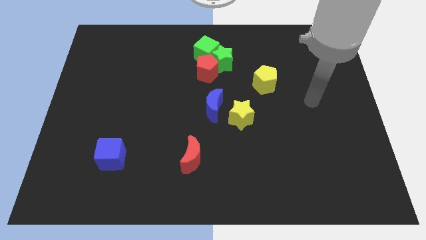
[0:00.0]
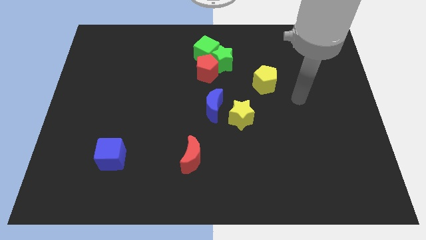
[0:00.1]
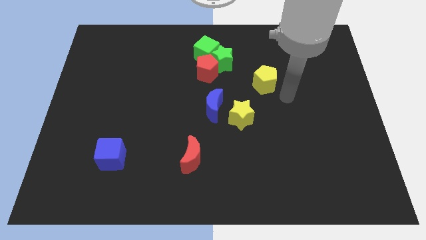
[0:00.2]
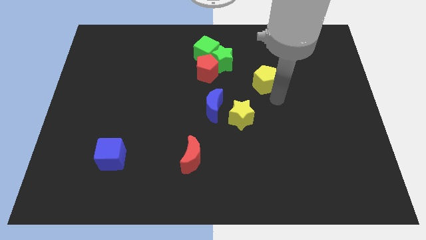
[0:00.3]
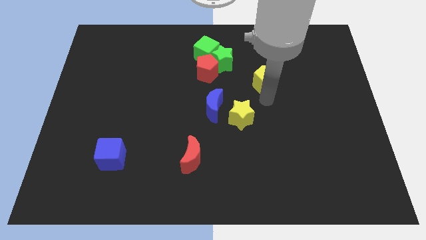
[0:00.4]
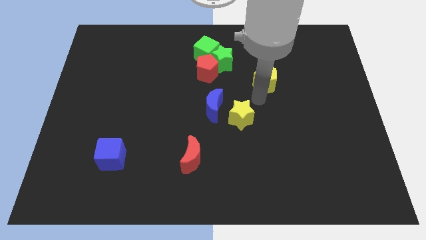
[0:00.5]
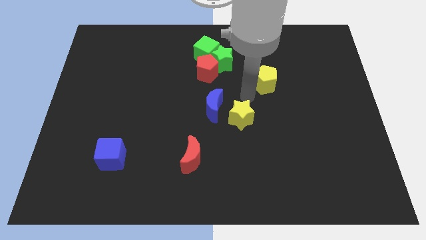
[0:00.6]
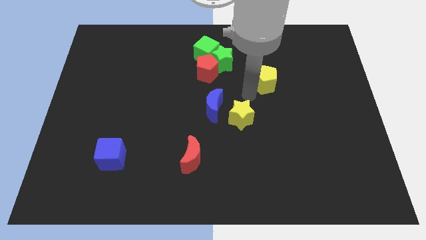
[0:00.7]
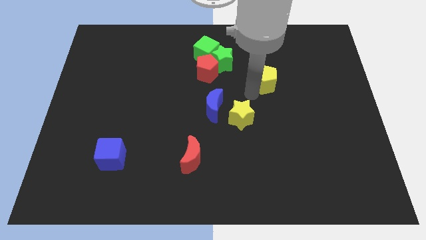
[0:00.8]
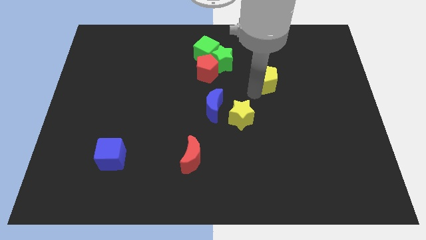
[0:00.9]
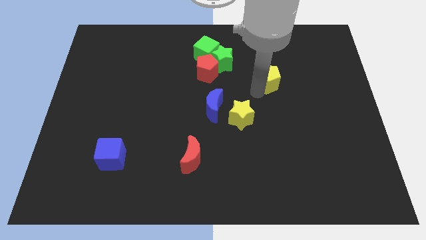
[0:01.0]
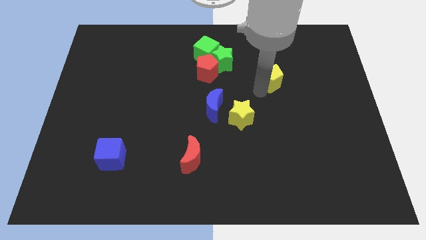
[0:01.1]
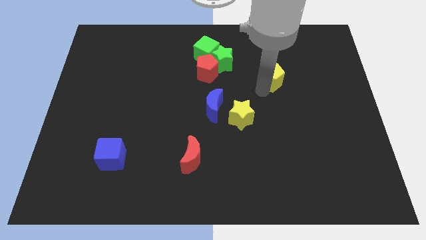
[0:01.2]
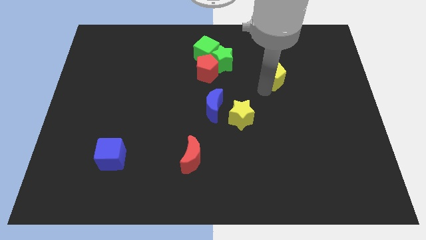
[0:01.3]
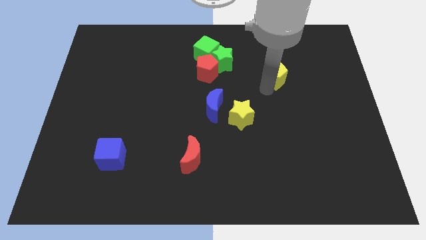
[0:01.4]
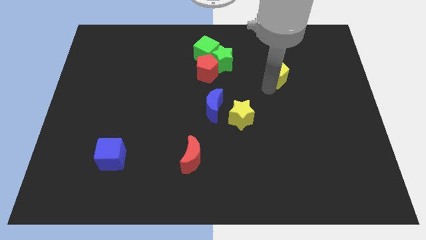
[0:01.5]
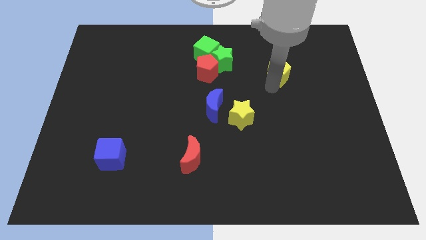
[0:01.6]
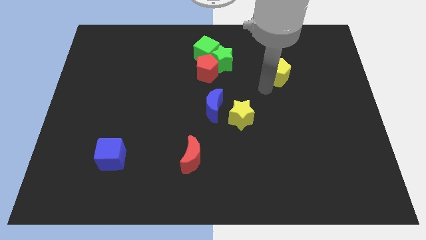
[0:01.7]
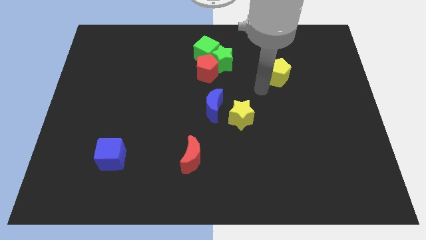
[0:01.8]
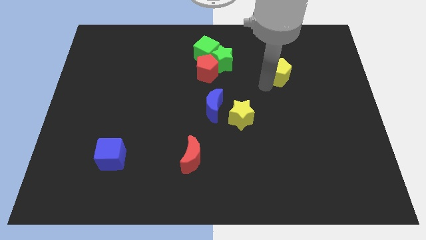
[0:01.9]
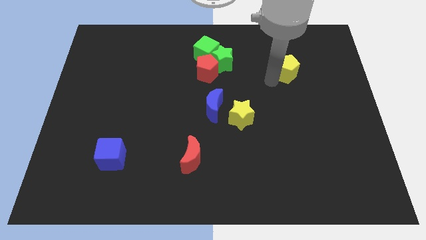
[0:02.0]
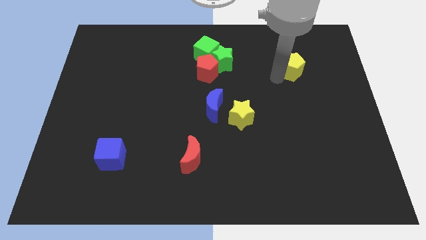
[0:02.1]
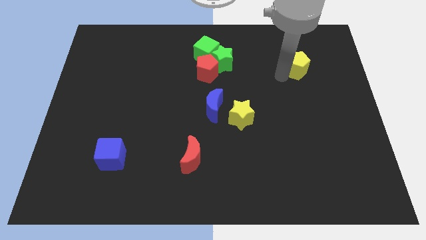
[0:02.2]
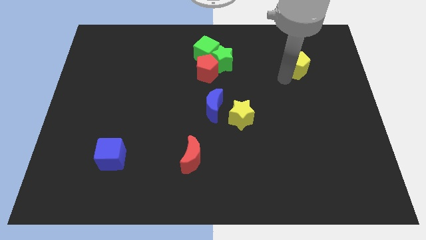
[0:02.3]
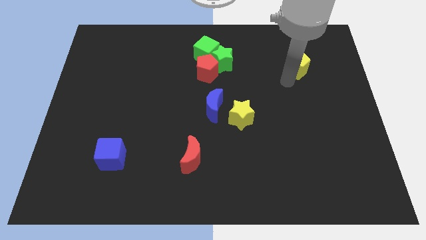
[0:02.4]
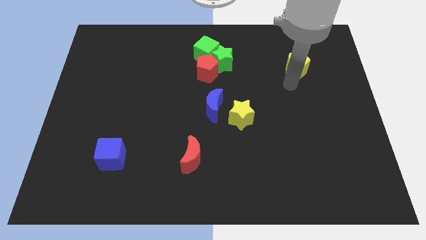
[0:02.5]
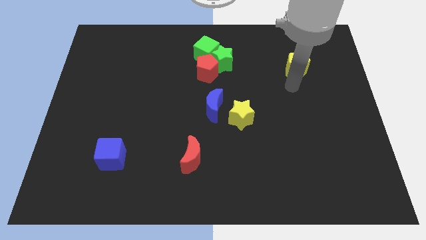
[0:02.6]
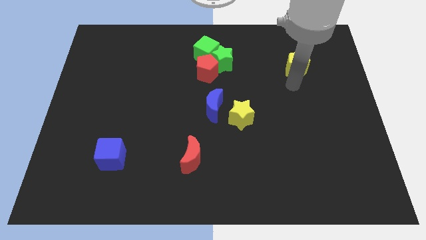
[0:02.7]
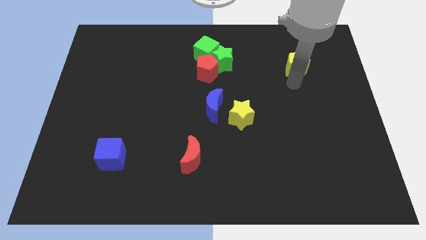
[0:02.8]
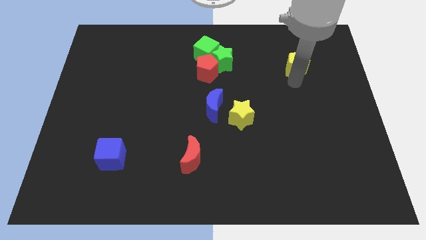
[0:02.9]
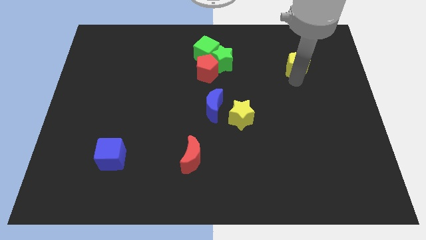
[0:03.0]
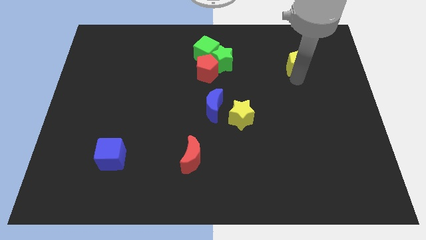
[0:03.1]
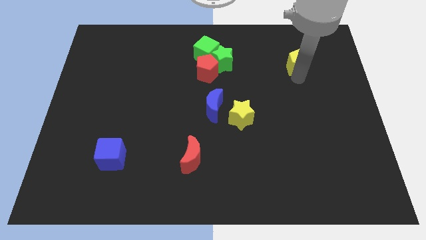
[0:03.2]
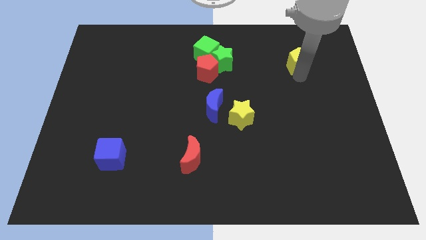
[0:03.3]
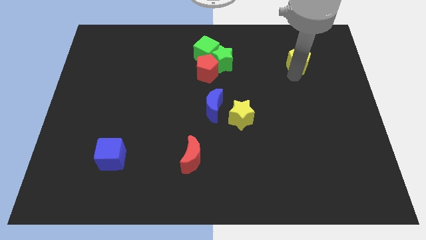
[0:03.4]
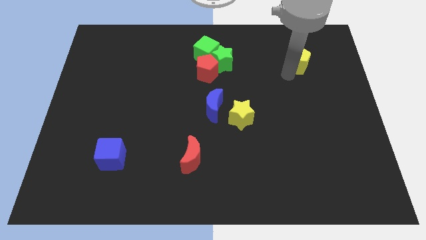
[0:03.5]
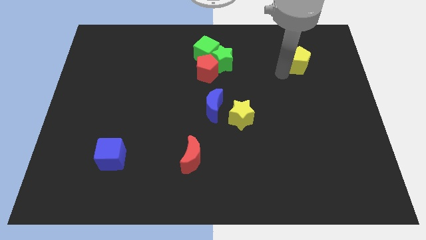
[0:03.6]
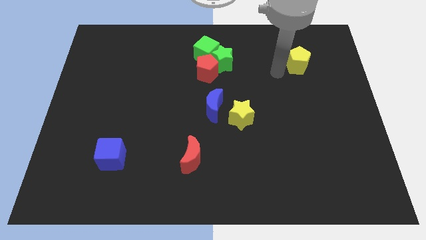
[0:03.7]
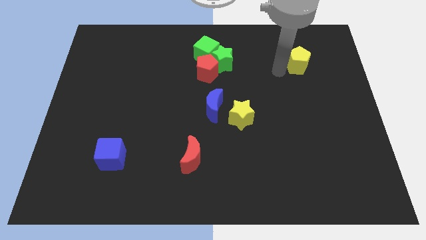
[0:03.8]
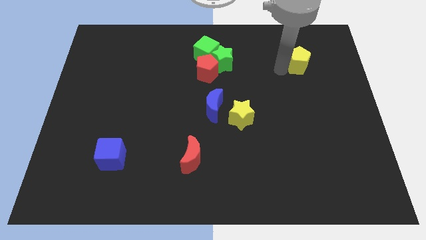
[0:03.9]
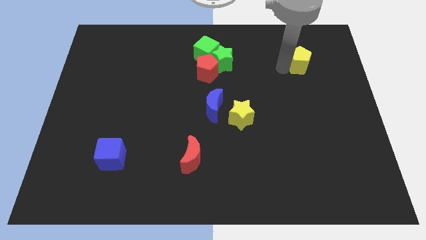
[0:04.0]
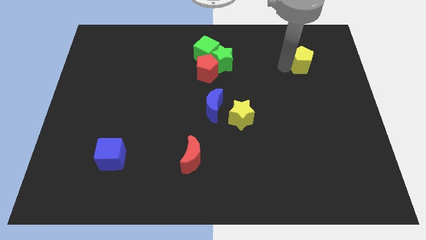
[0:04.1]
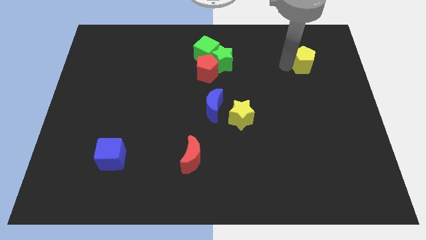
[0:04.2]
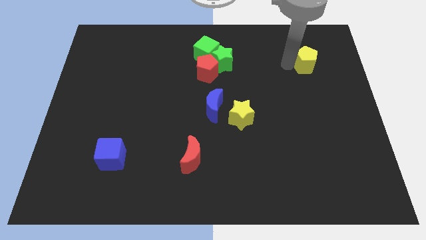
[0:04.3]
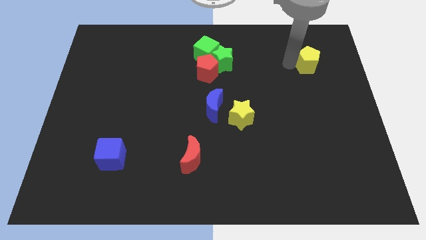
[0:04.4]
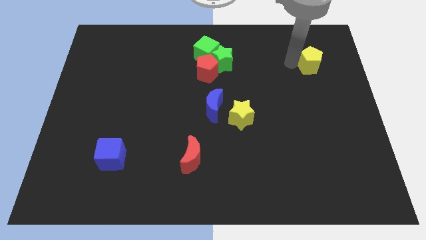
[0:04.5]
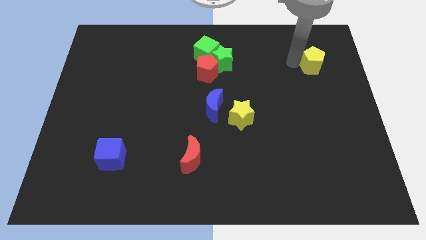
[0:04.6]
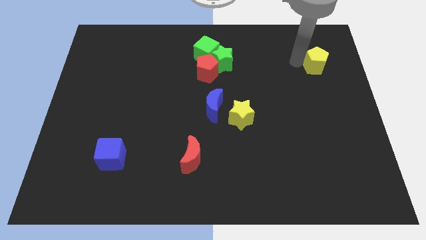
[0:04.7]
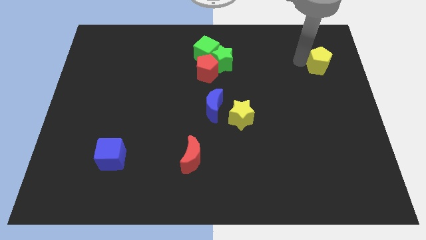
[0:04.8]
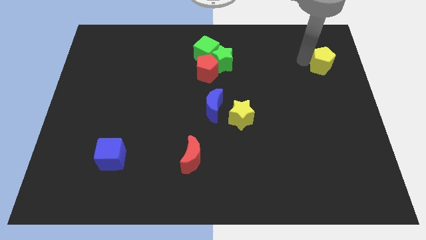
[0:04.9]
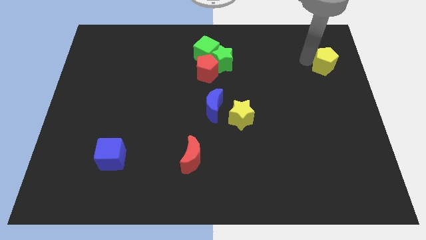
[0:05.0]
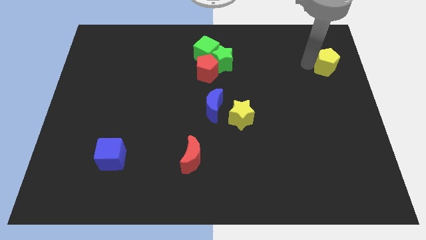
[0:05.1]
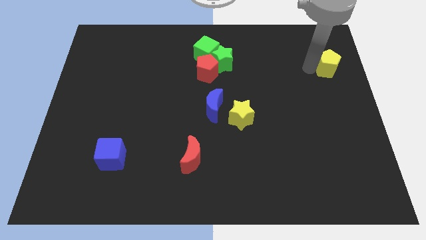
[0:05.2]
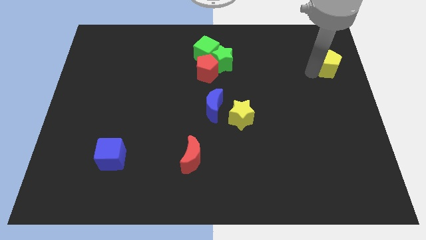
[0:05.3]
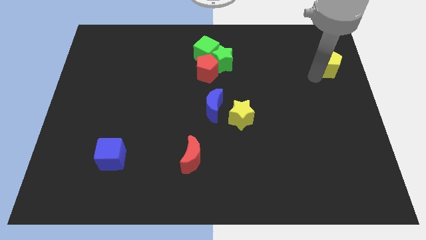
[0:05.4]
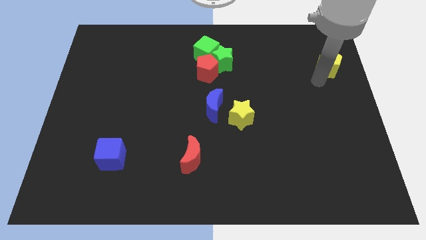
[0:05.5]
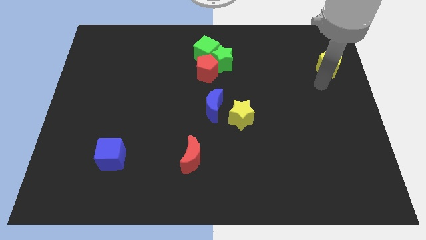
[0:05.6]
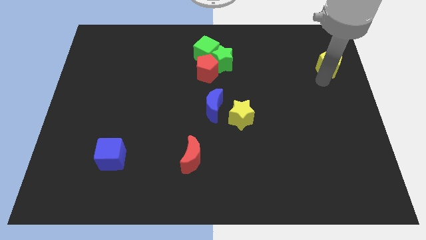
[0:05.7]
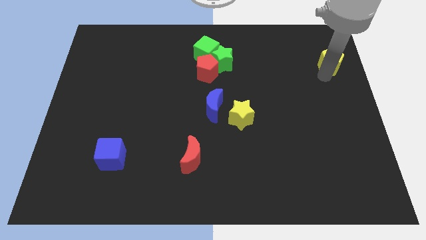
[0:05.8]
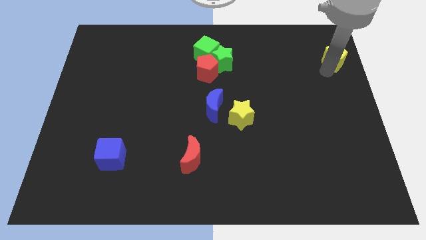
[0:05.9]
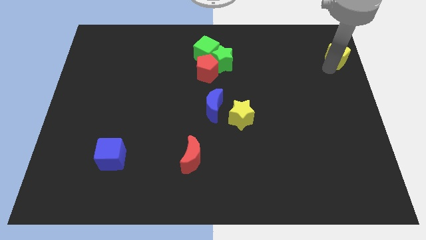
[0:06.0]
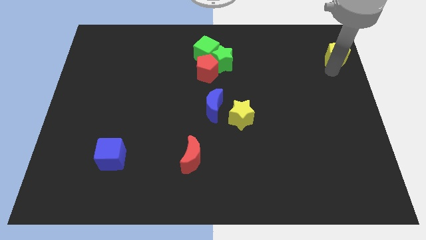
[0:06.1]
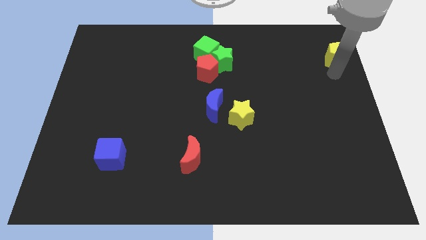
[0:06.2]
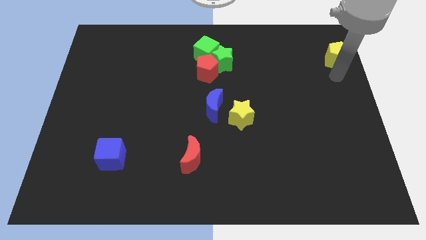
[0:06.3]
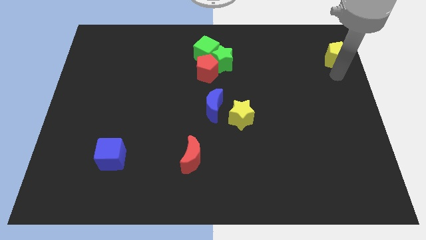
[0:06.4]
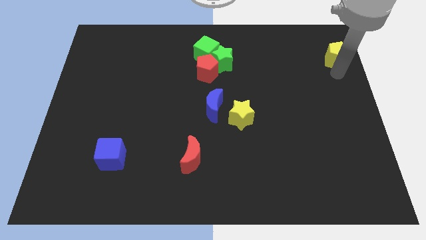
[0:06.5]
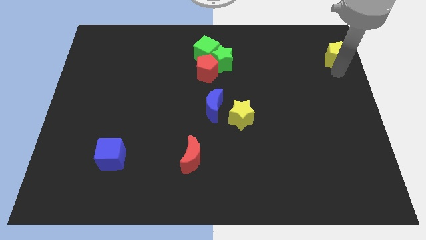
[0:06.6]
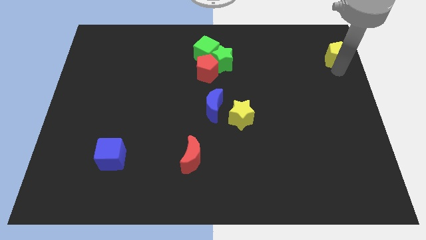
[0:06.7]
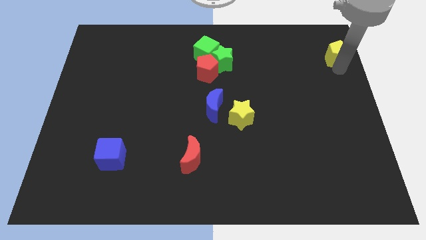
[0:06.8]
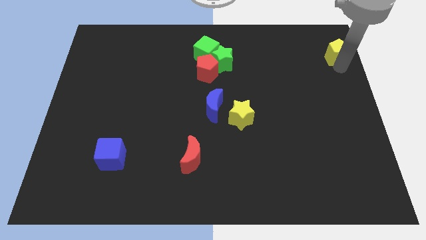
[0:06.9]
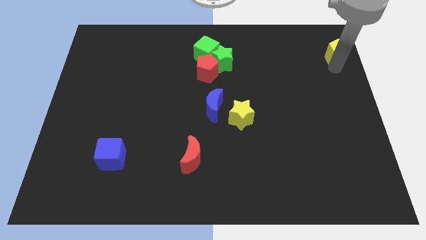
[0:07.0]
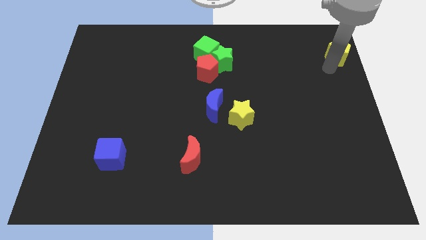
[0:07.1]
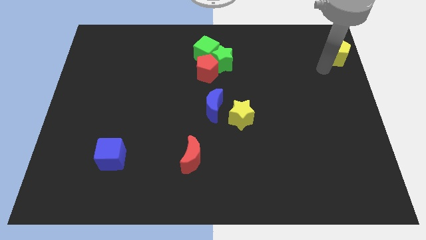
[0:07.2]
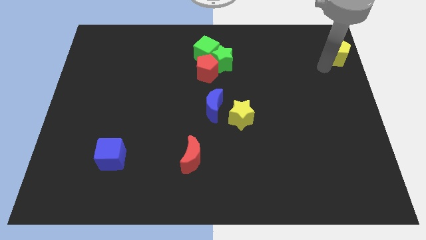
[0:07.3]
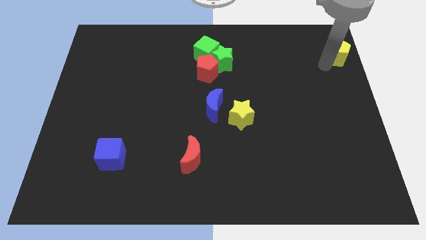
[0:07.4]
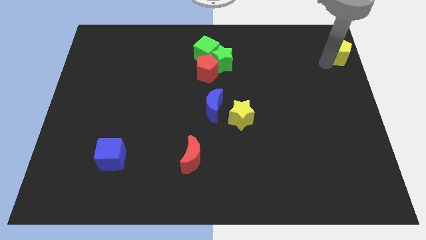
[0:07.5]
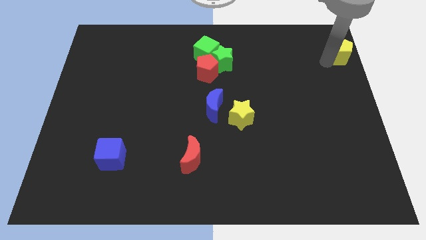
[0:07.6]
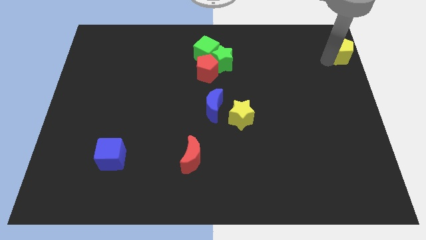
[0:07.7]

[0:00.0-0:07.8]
slide the yellow pentagon to the top right
